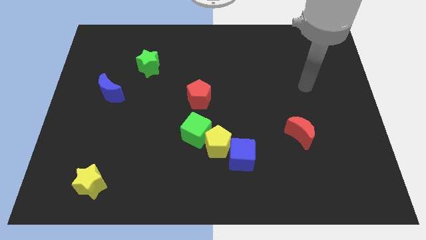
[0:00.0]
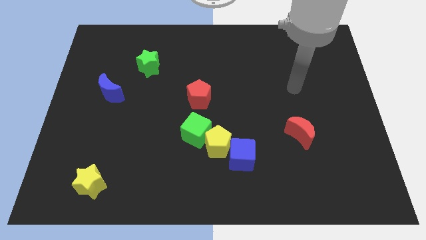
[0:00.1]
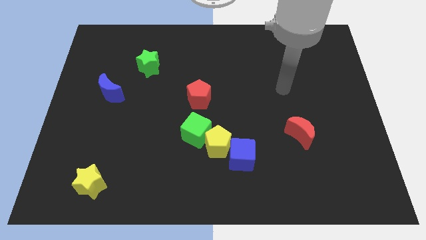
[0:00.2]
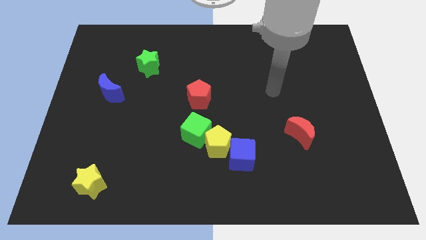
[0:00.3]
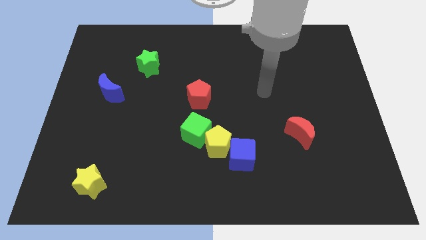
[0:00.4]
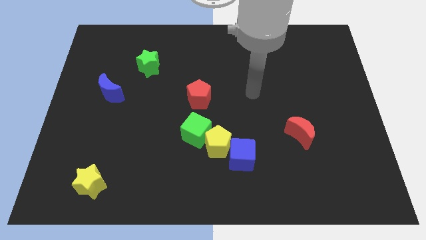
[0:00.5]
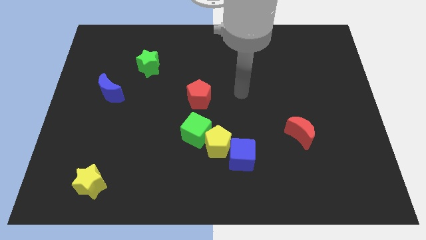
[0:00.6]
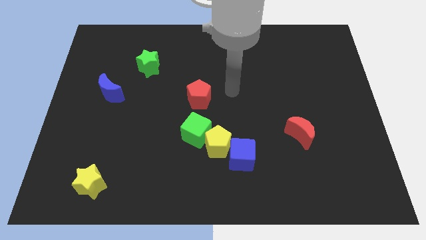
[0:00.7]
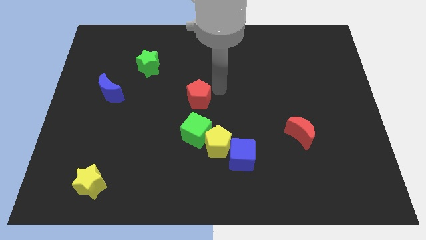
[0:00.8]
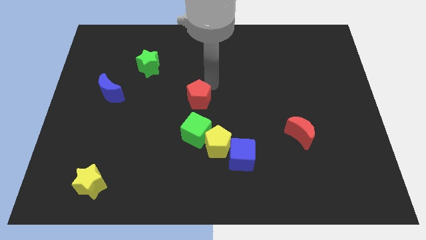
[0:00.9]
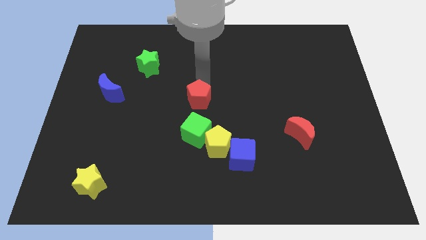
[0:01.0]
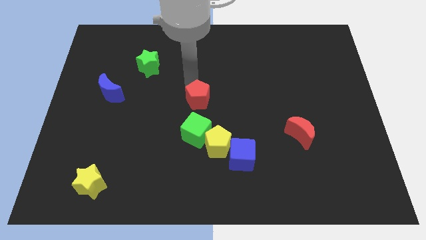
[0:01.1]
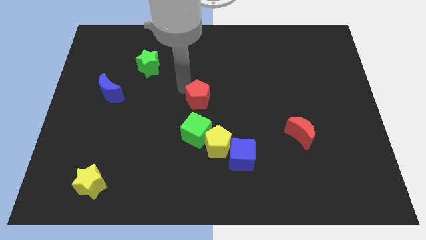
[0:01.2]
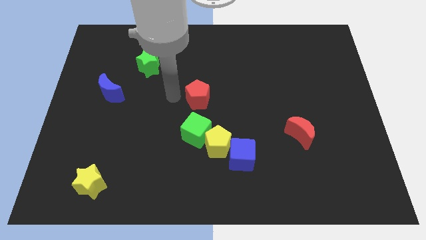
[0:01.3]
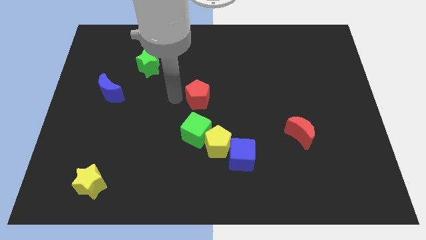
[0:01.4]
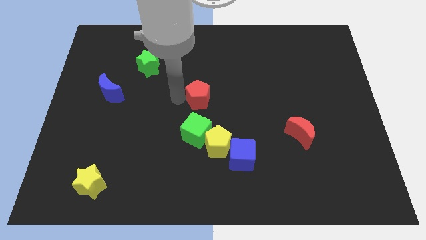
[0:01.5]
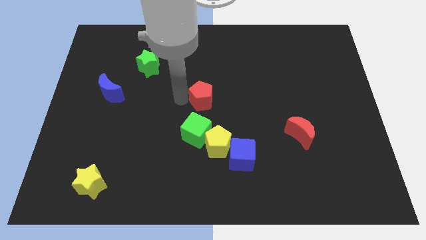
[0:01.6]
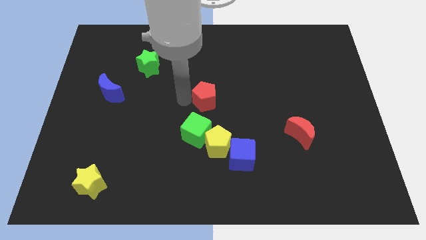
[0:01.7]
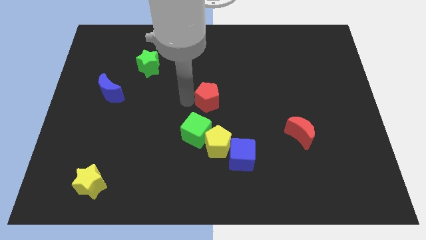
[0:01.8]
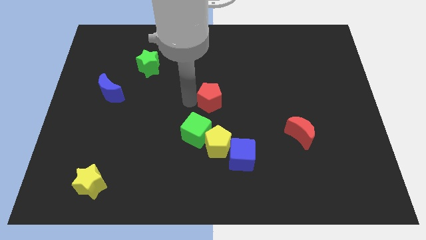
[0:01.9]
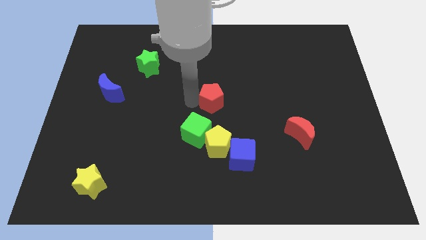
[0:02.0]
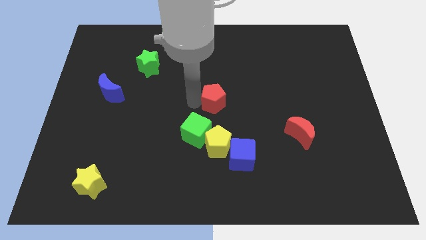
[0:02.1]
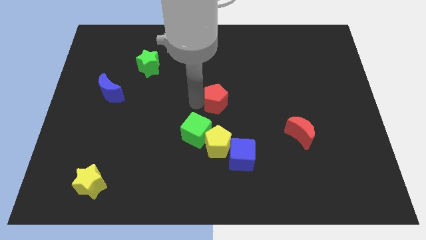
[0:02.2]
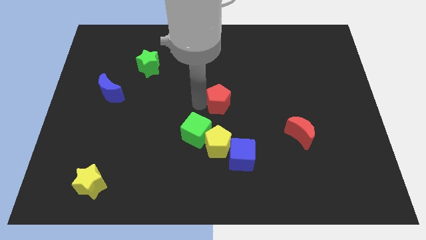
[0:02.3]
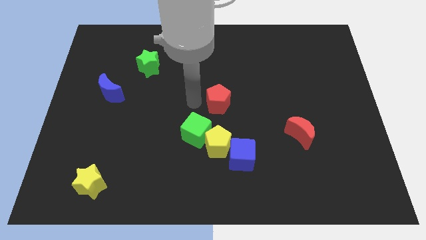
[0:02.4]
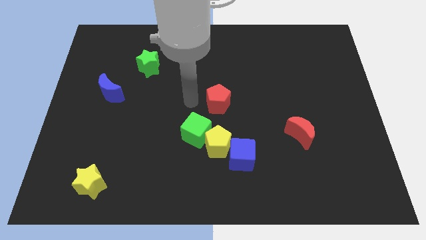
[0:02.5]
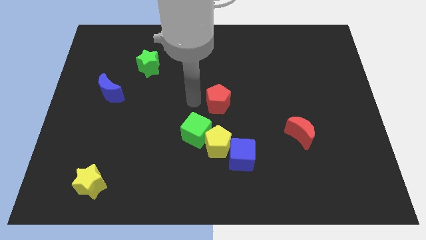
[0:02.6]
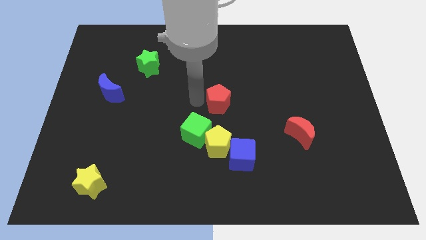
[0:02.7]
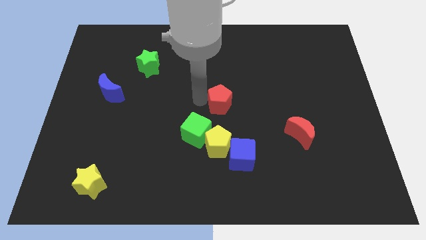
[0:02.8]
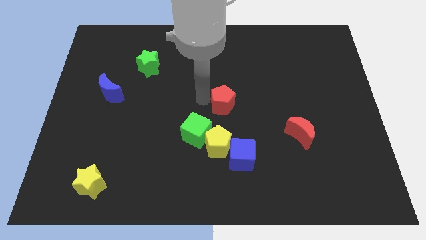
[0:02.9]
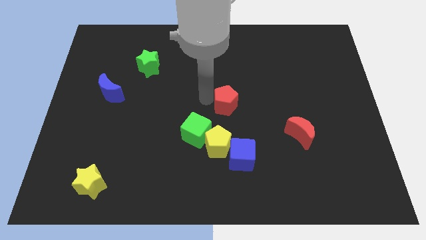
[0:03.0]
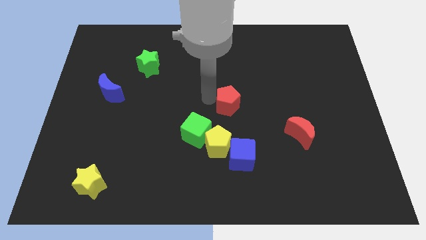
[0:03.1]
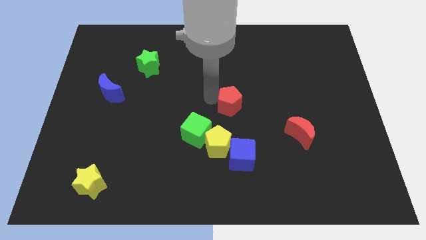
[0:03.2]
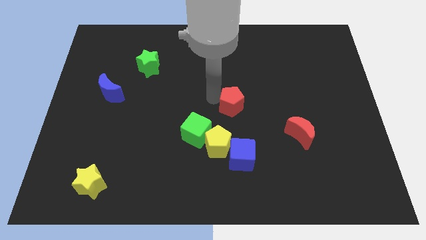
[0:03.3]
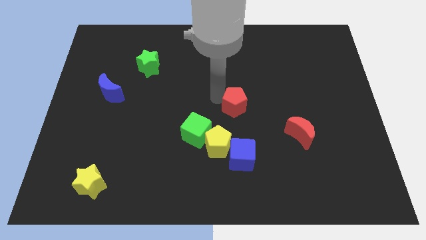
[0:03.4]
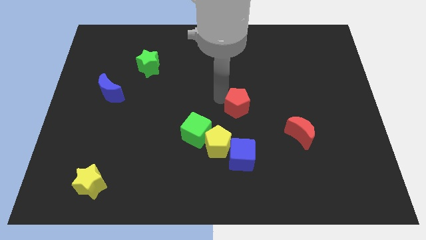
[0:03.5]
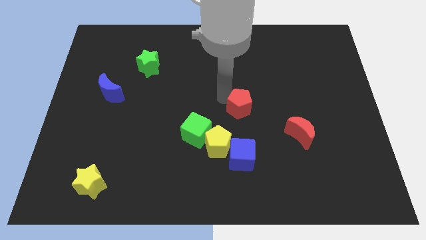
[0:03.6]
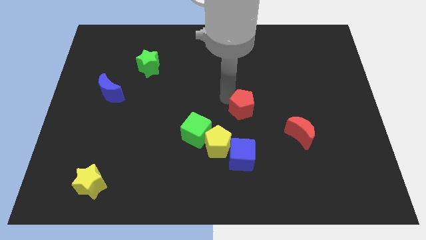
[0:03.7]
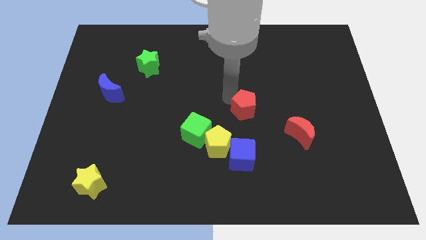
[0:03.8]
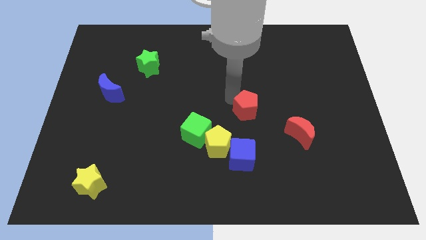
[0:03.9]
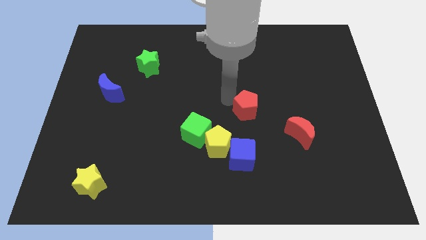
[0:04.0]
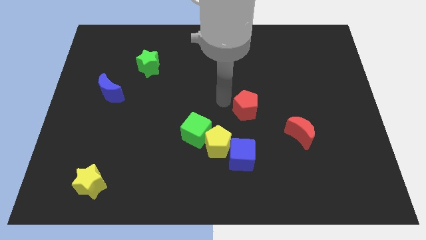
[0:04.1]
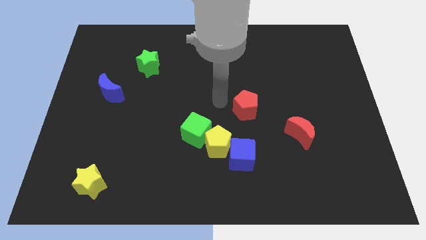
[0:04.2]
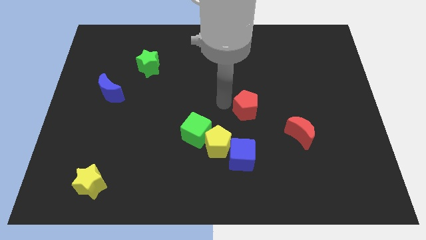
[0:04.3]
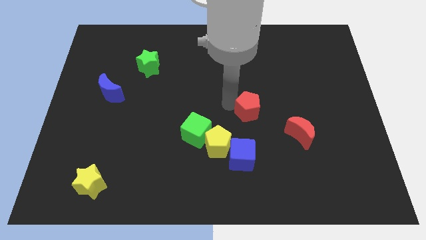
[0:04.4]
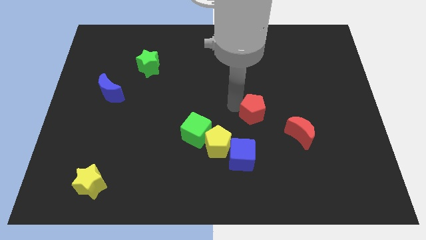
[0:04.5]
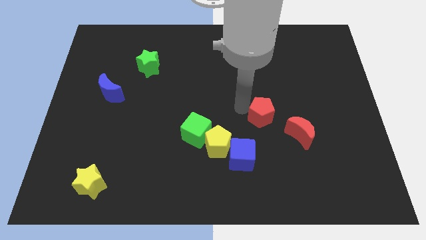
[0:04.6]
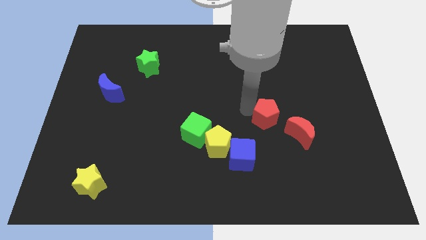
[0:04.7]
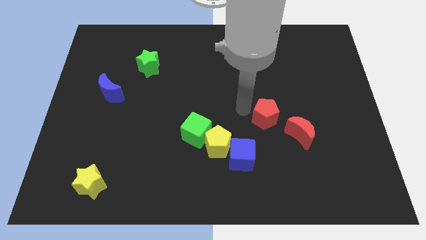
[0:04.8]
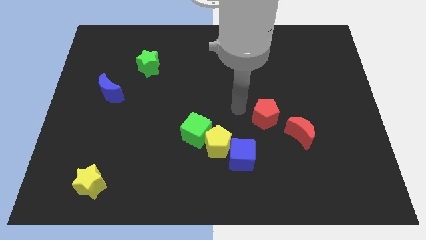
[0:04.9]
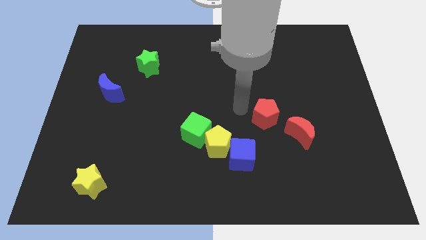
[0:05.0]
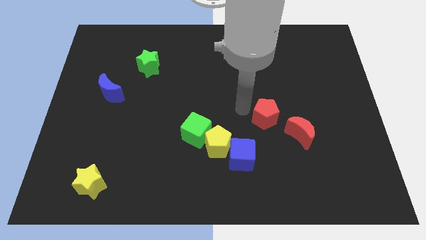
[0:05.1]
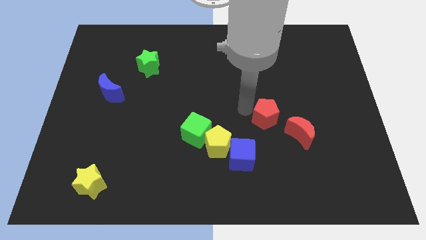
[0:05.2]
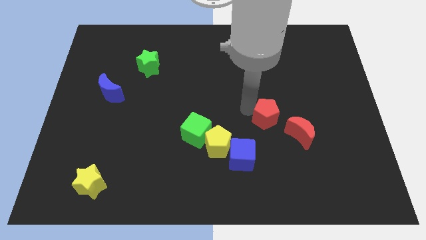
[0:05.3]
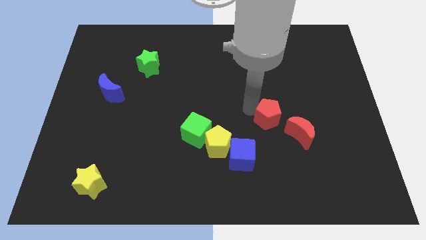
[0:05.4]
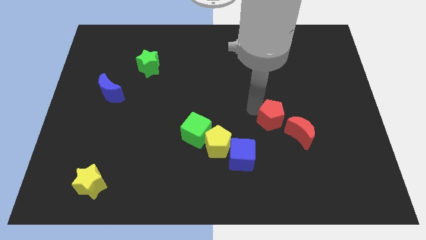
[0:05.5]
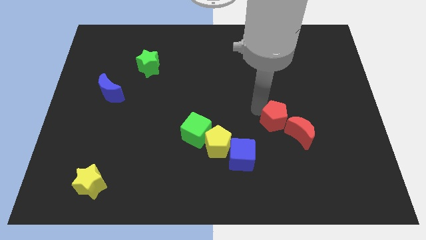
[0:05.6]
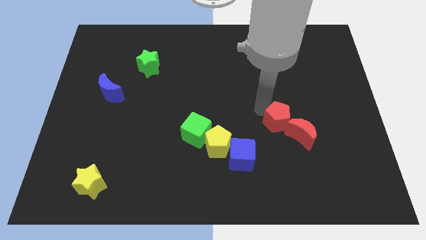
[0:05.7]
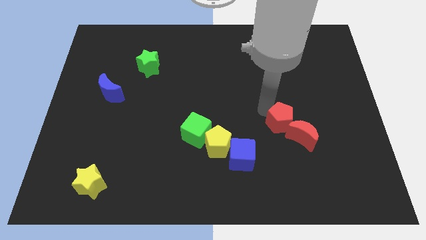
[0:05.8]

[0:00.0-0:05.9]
move the red pentagon towards the red moon
